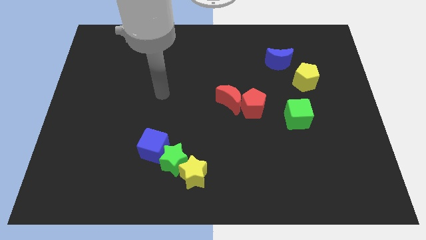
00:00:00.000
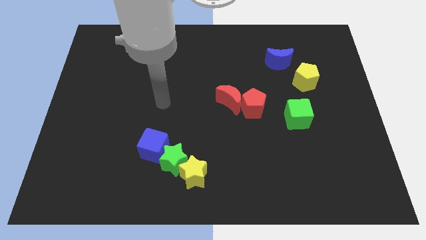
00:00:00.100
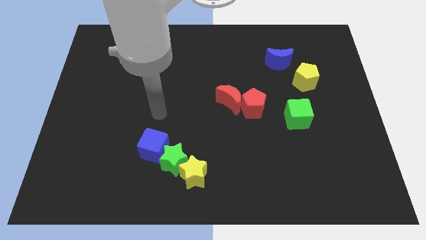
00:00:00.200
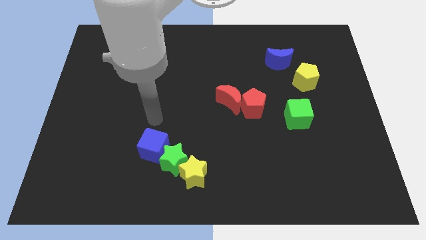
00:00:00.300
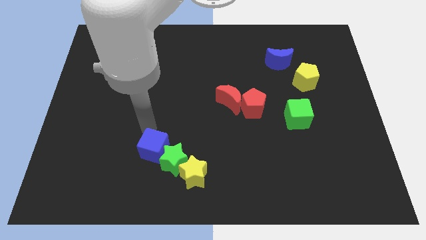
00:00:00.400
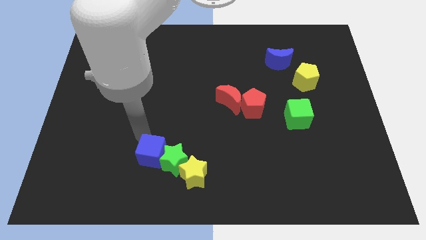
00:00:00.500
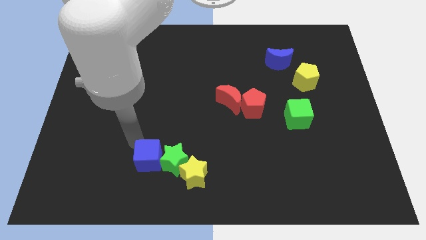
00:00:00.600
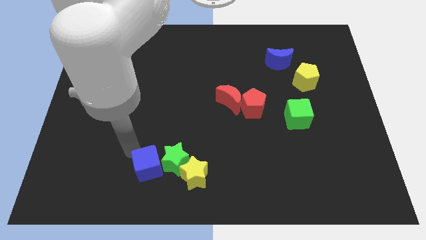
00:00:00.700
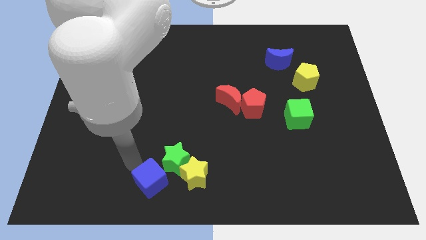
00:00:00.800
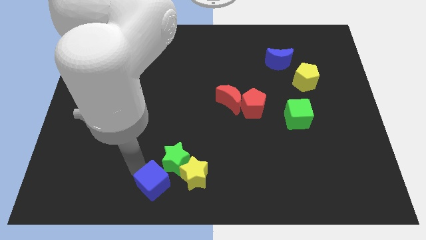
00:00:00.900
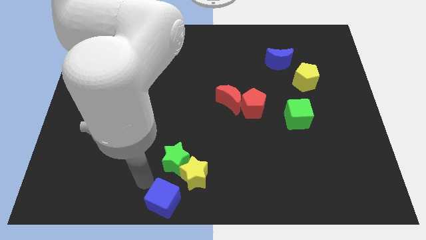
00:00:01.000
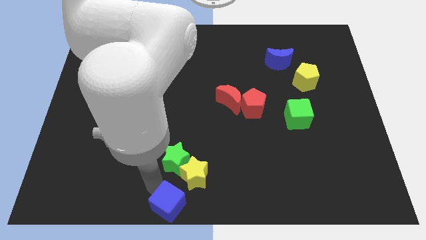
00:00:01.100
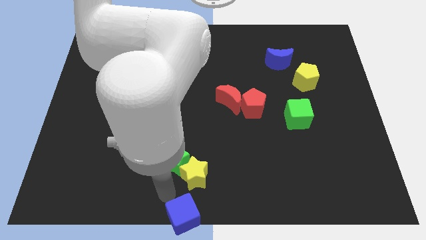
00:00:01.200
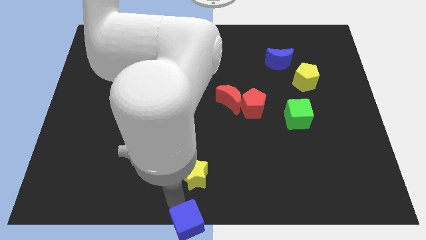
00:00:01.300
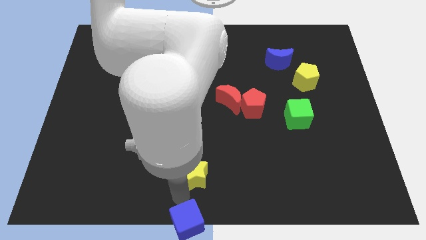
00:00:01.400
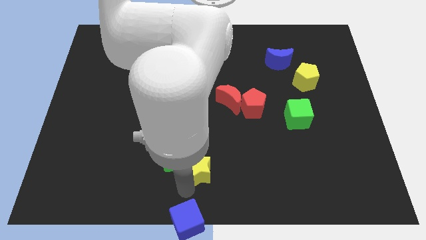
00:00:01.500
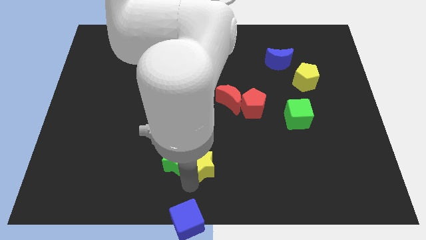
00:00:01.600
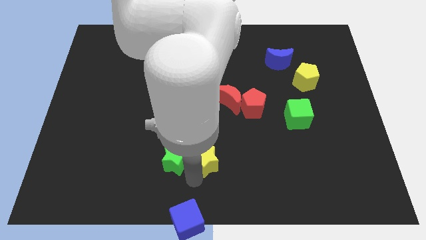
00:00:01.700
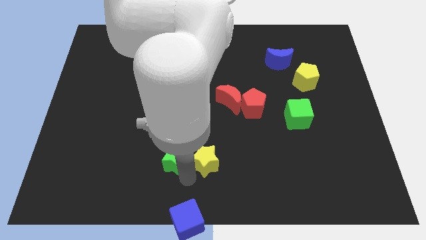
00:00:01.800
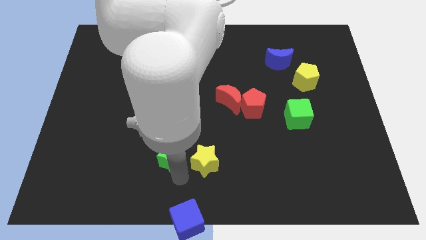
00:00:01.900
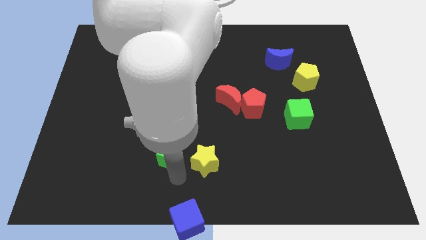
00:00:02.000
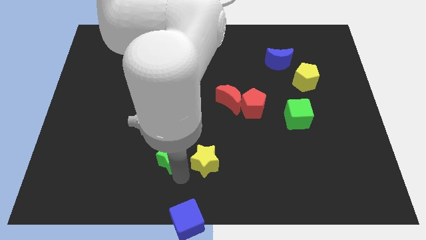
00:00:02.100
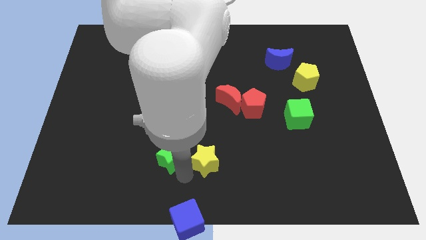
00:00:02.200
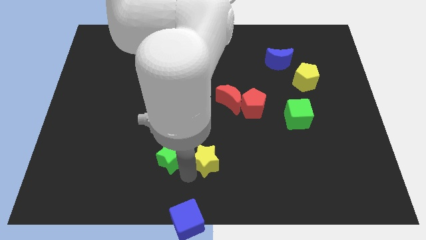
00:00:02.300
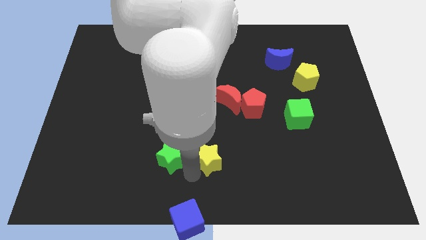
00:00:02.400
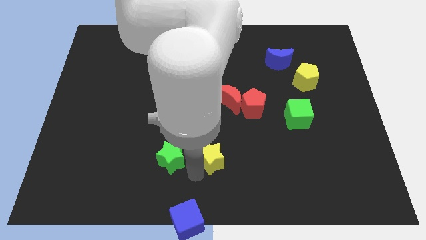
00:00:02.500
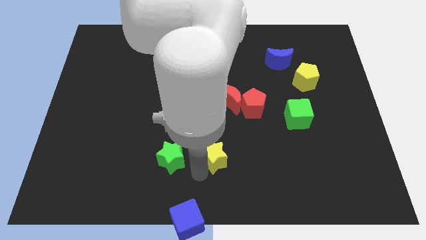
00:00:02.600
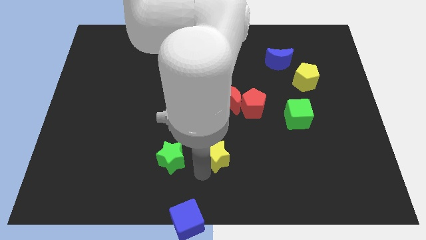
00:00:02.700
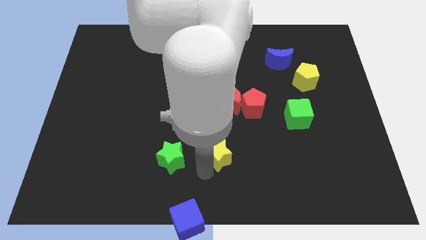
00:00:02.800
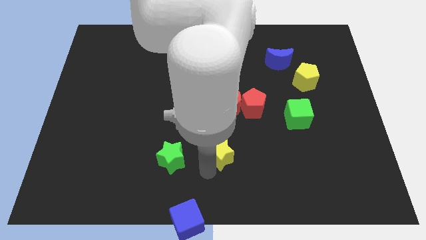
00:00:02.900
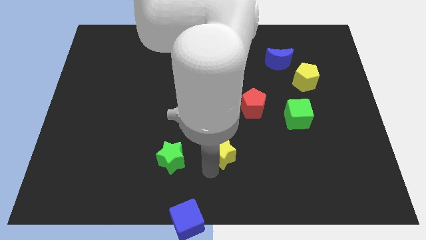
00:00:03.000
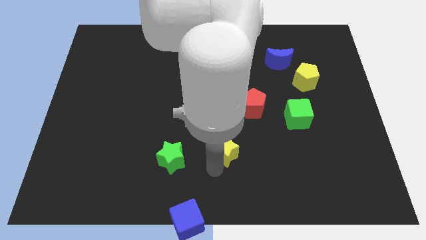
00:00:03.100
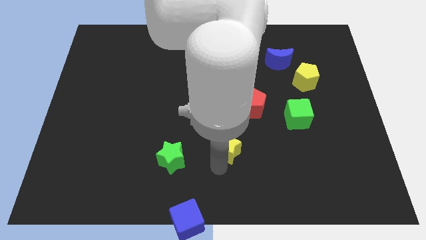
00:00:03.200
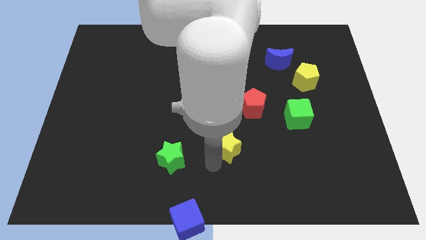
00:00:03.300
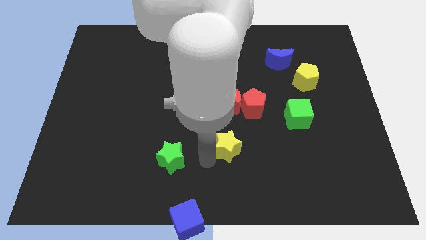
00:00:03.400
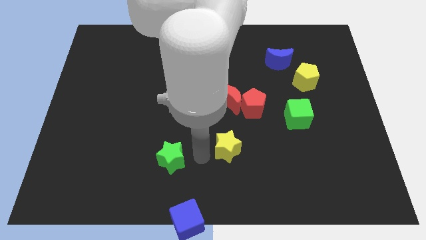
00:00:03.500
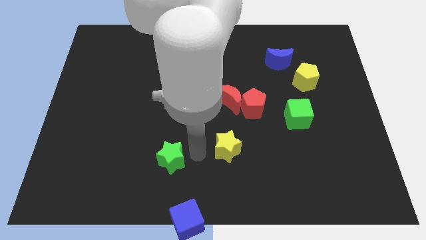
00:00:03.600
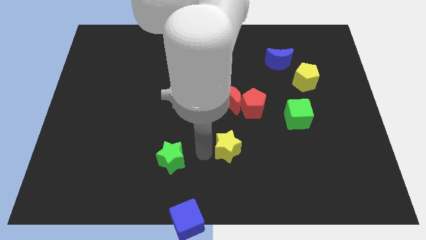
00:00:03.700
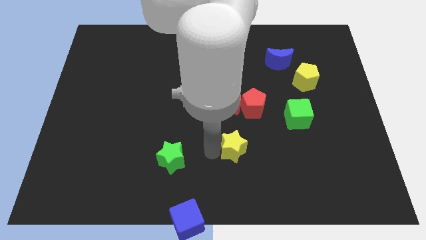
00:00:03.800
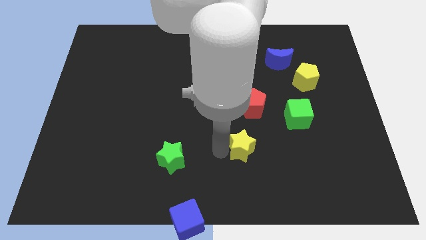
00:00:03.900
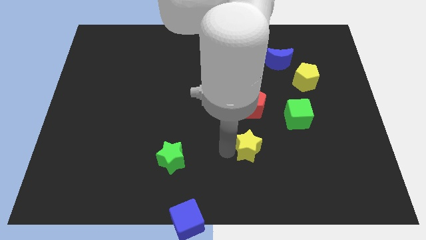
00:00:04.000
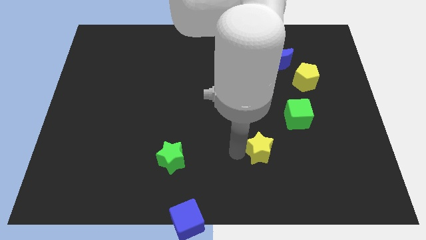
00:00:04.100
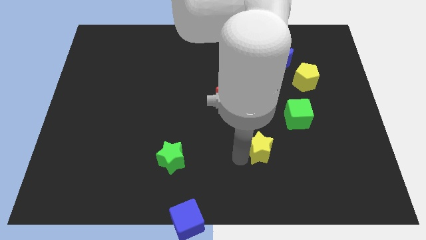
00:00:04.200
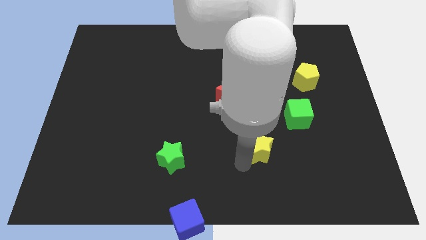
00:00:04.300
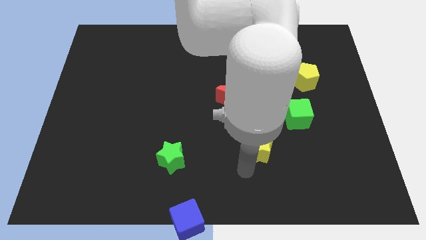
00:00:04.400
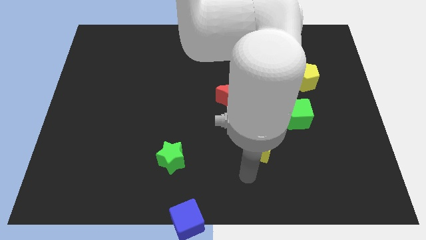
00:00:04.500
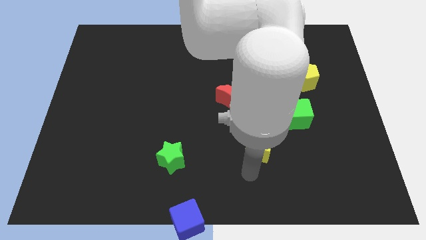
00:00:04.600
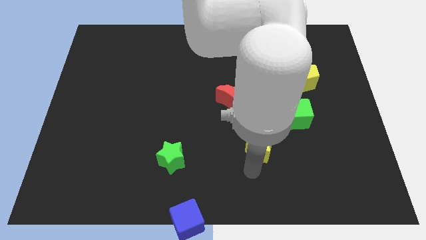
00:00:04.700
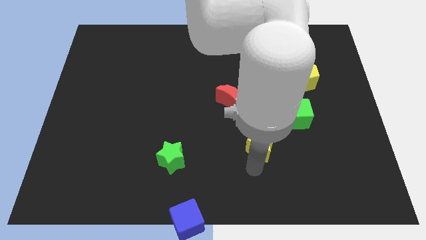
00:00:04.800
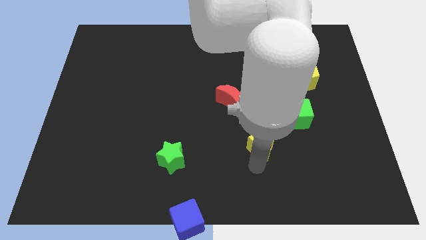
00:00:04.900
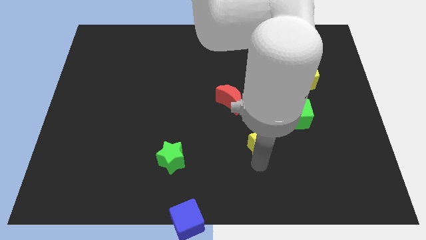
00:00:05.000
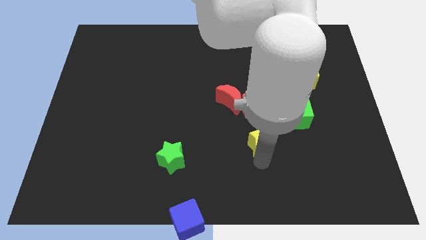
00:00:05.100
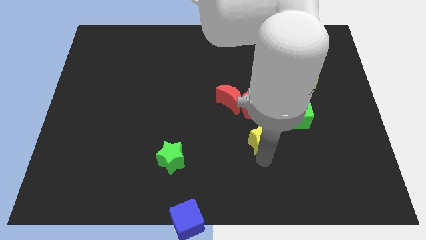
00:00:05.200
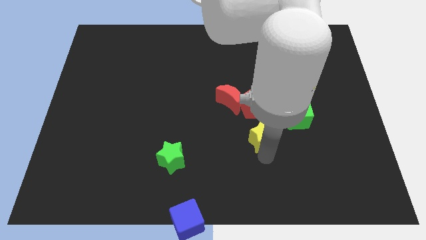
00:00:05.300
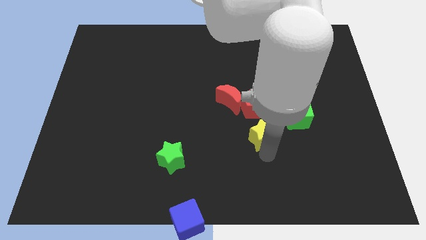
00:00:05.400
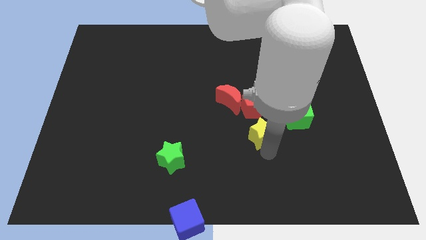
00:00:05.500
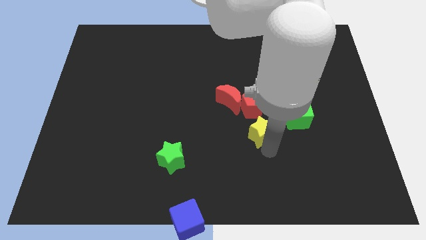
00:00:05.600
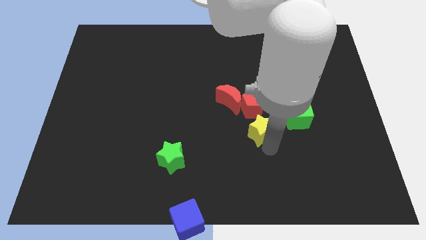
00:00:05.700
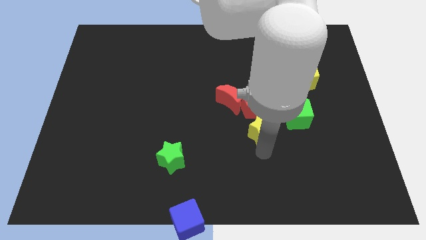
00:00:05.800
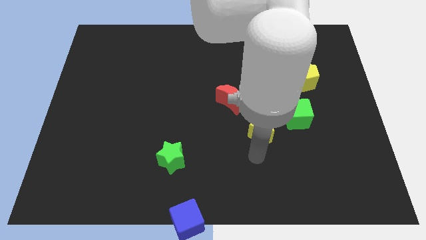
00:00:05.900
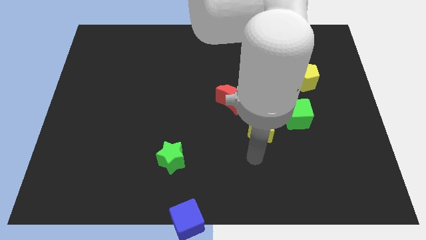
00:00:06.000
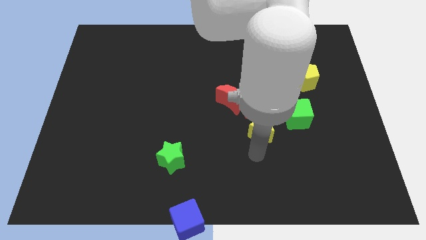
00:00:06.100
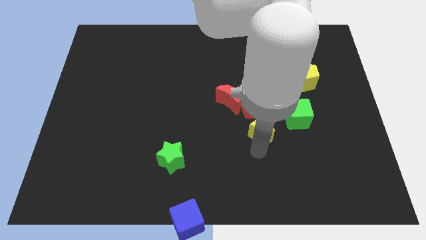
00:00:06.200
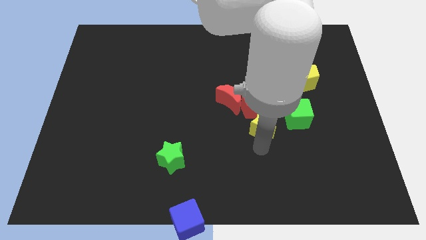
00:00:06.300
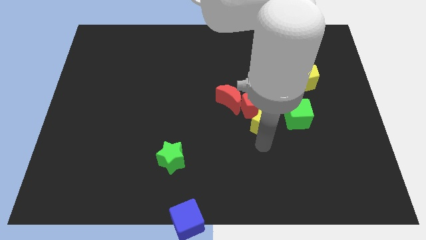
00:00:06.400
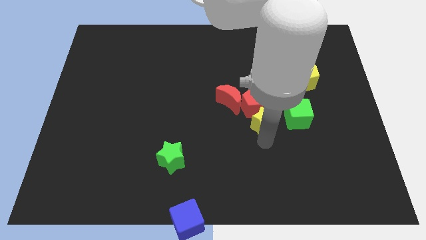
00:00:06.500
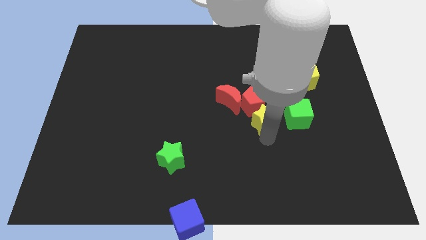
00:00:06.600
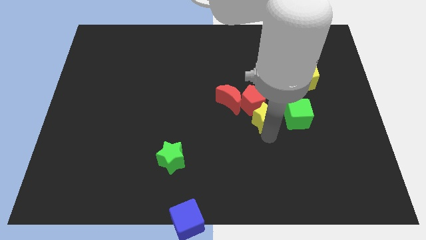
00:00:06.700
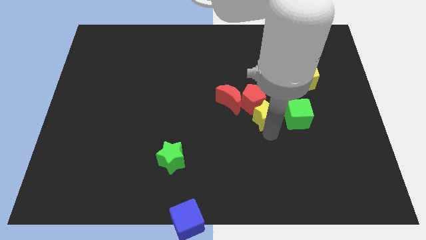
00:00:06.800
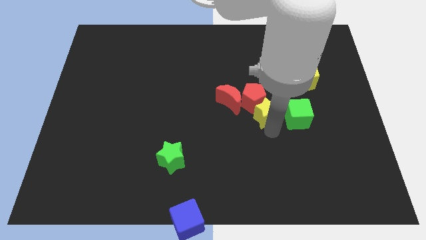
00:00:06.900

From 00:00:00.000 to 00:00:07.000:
push the yellow star to the top left of the green cube
